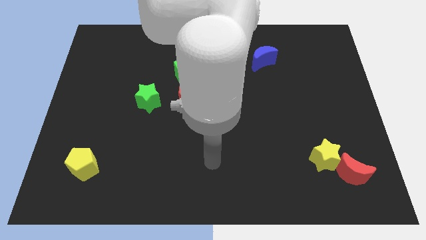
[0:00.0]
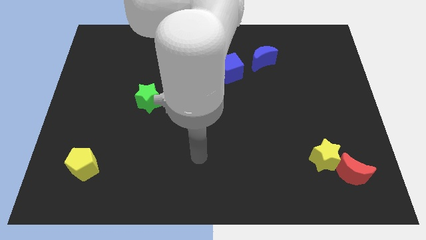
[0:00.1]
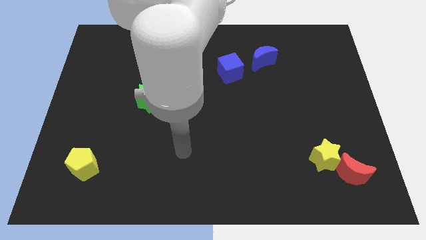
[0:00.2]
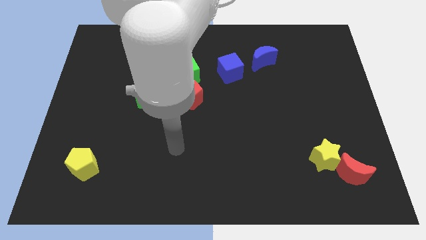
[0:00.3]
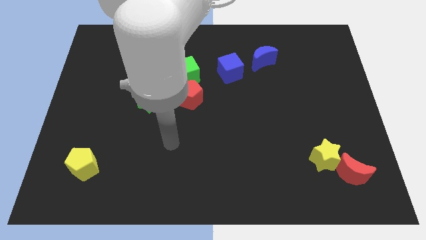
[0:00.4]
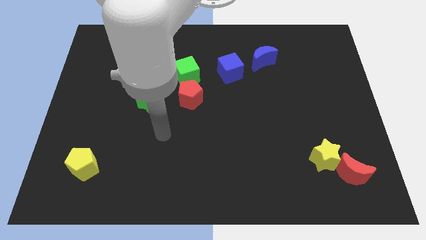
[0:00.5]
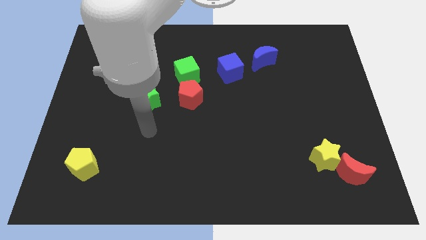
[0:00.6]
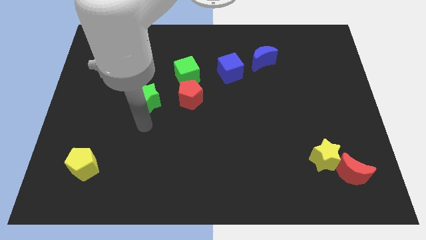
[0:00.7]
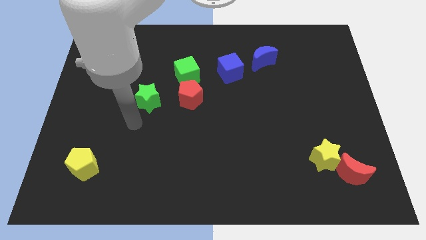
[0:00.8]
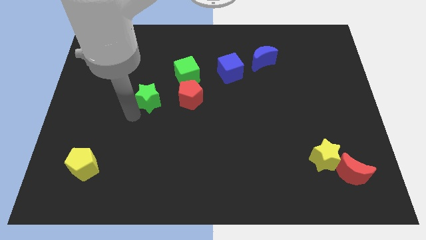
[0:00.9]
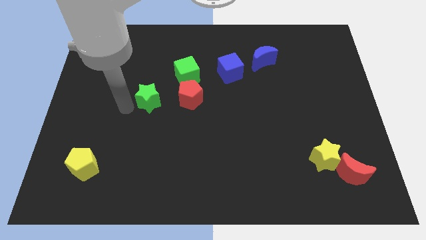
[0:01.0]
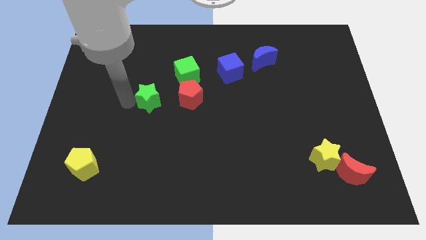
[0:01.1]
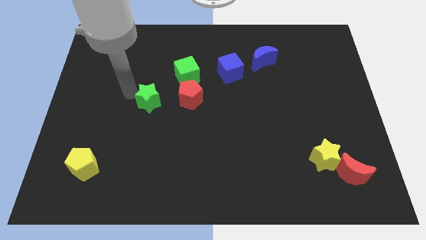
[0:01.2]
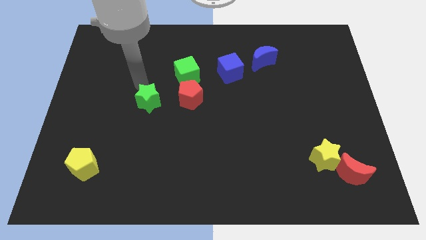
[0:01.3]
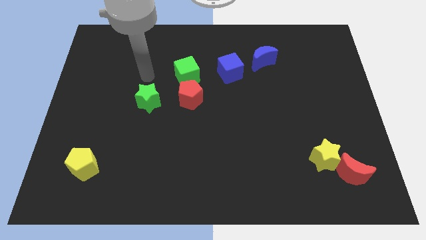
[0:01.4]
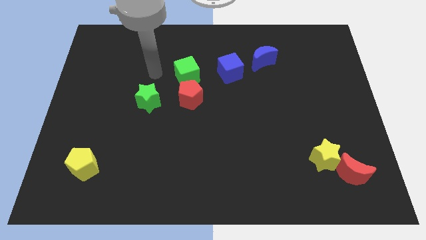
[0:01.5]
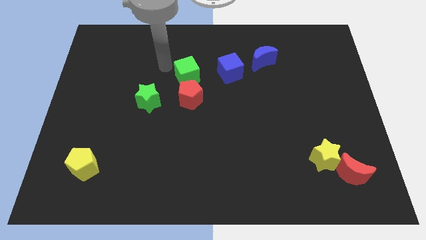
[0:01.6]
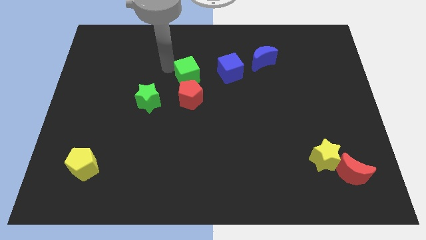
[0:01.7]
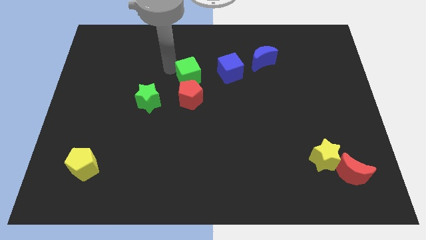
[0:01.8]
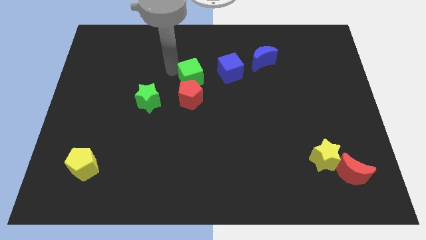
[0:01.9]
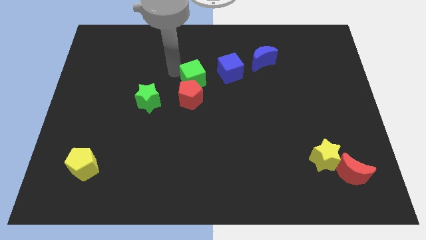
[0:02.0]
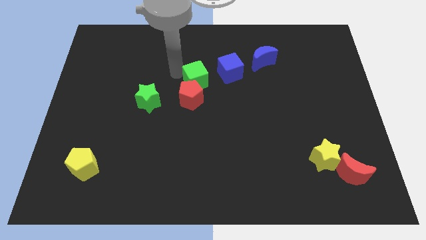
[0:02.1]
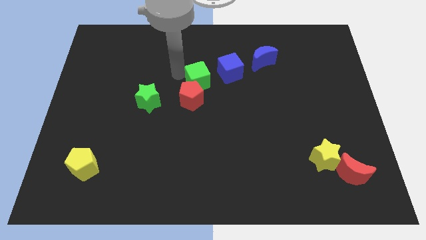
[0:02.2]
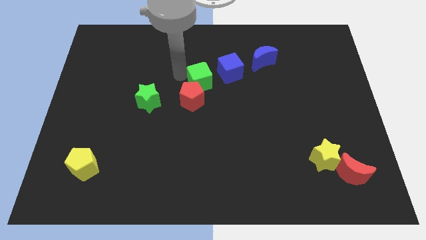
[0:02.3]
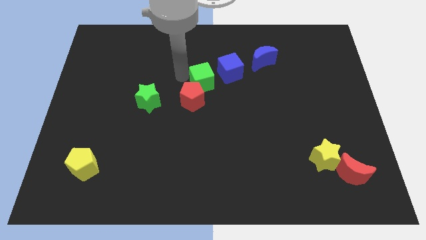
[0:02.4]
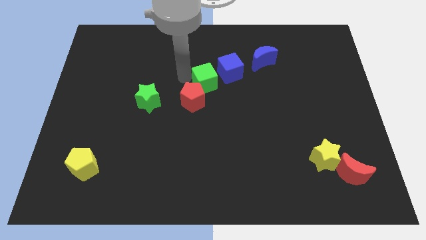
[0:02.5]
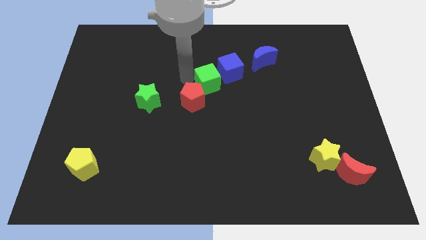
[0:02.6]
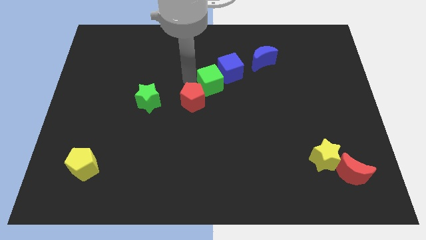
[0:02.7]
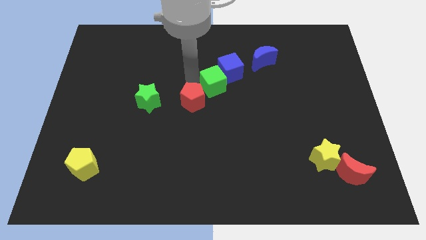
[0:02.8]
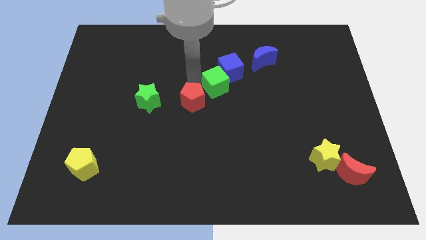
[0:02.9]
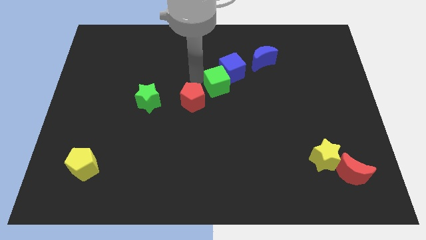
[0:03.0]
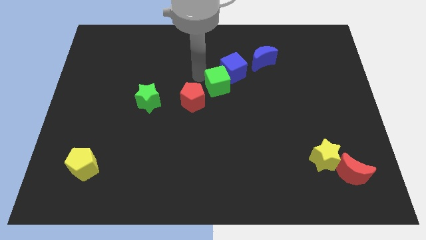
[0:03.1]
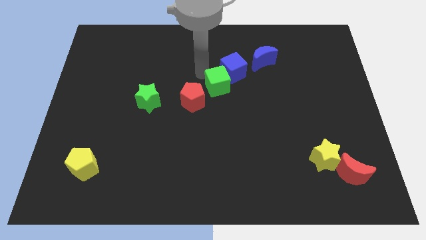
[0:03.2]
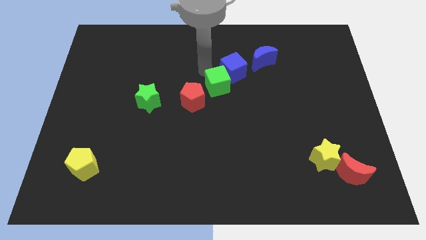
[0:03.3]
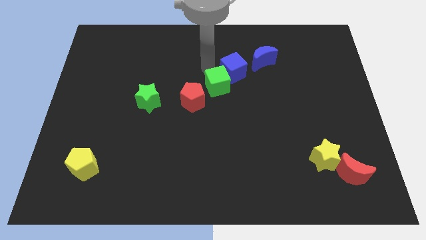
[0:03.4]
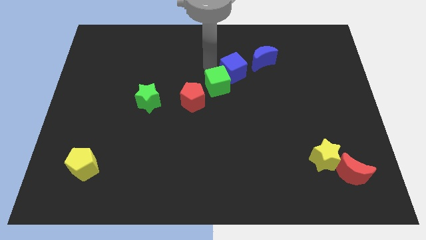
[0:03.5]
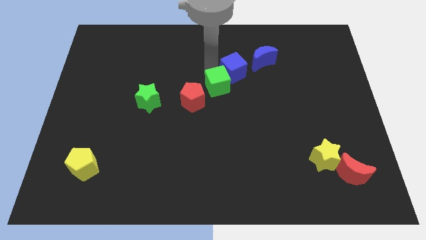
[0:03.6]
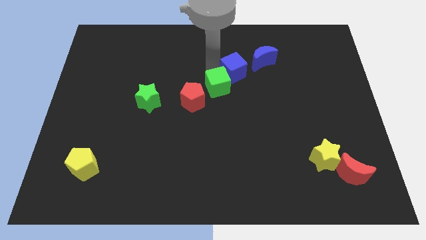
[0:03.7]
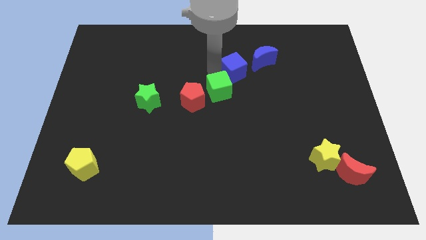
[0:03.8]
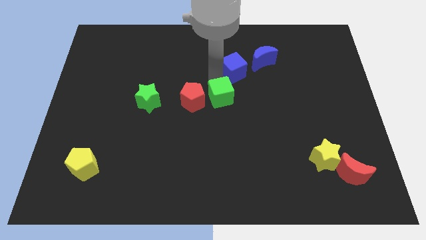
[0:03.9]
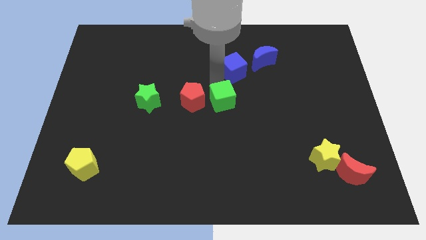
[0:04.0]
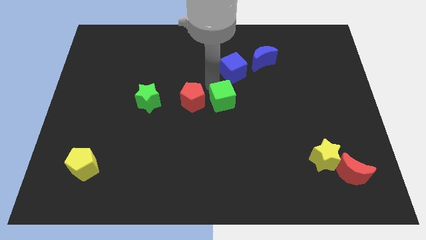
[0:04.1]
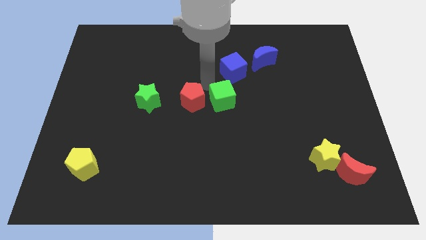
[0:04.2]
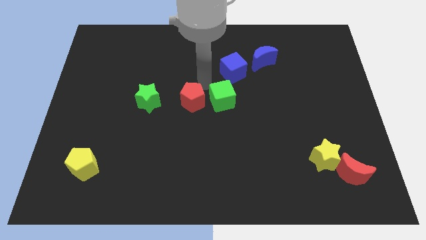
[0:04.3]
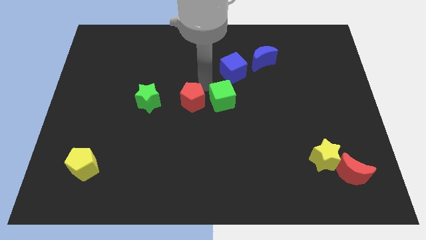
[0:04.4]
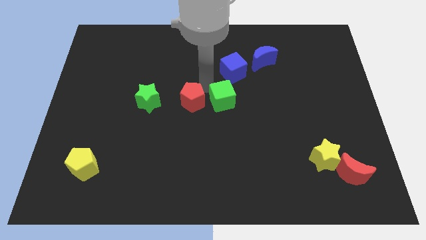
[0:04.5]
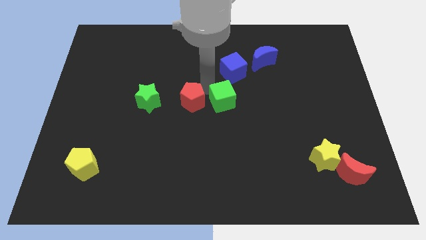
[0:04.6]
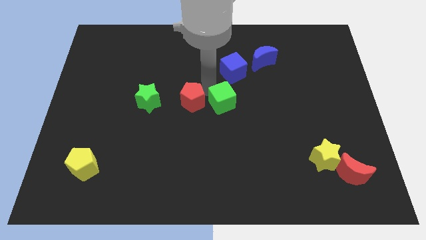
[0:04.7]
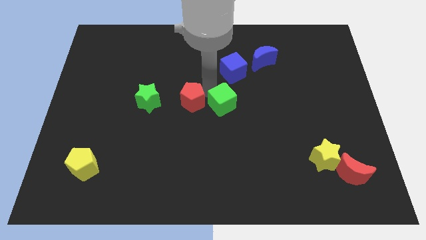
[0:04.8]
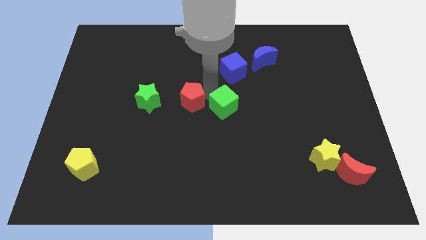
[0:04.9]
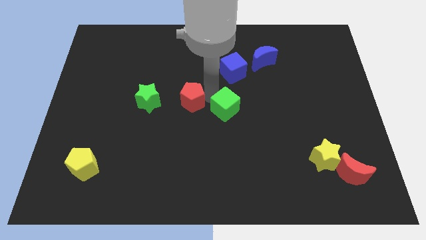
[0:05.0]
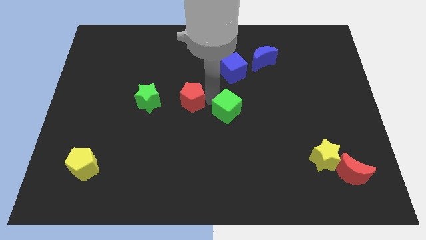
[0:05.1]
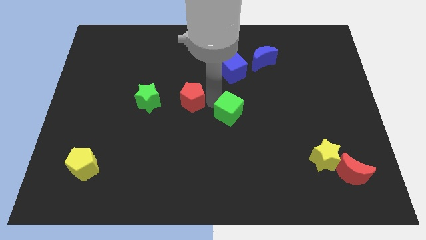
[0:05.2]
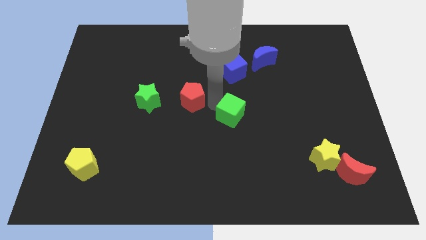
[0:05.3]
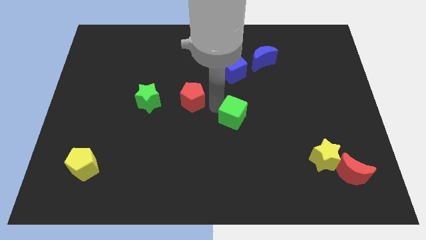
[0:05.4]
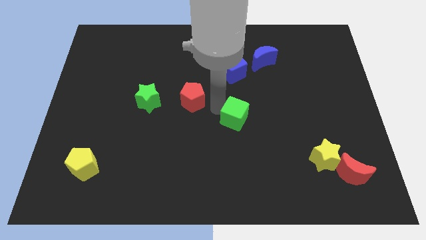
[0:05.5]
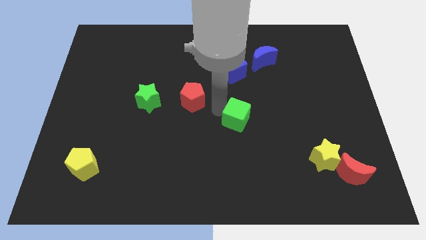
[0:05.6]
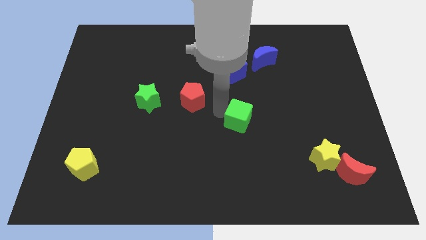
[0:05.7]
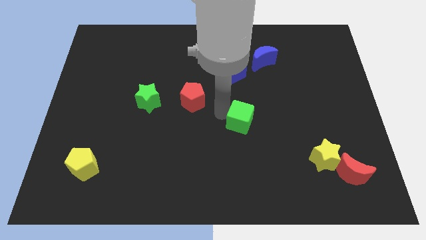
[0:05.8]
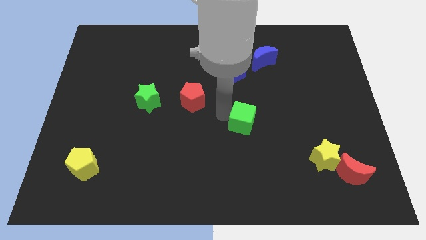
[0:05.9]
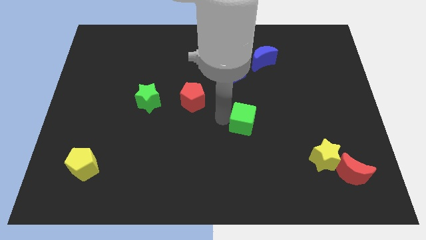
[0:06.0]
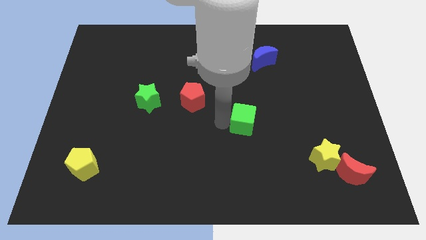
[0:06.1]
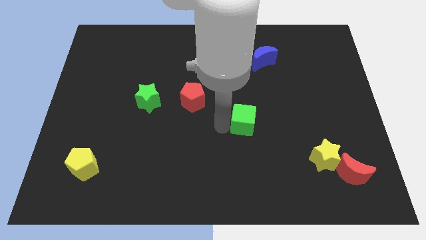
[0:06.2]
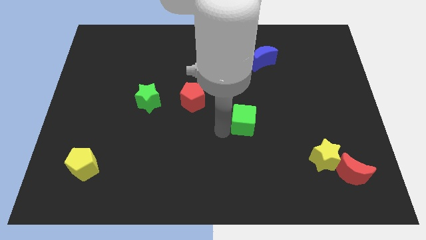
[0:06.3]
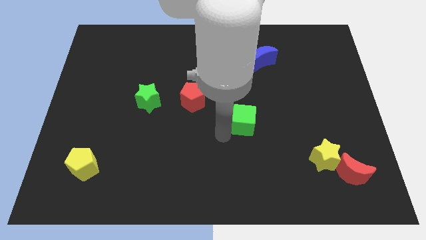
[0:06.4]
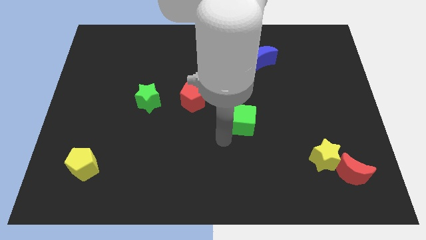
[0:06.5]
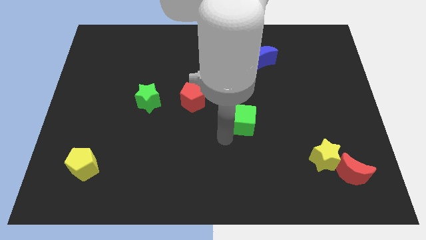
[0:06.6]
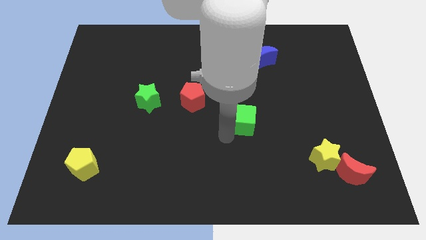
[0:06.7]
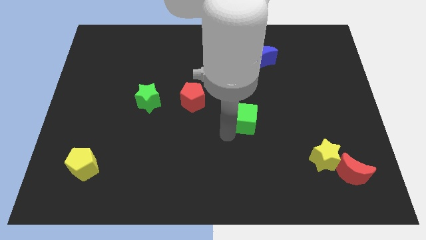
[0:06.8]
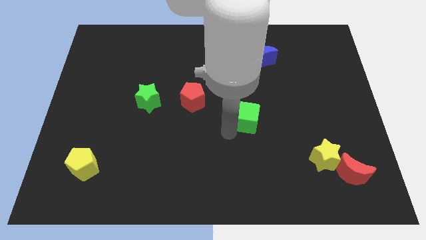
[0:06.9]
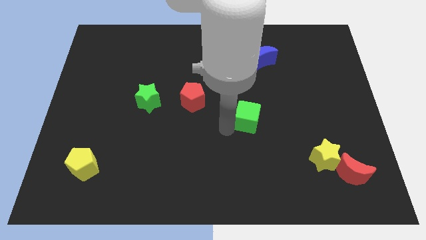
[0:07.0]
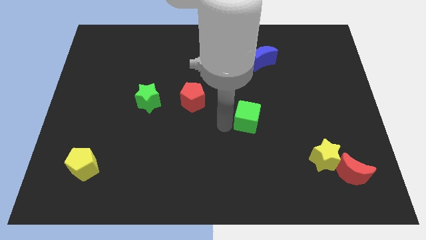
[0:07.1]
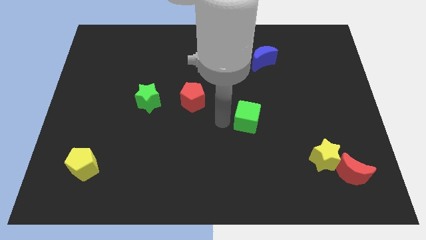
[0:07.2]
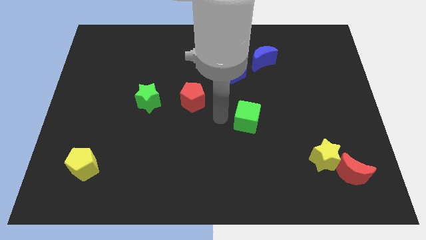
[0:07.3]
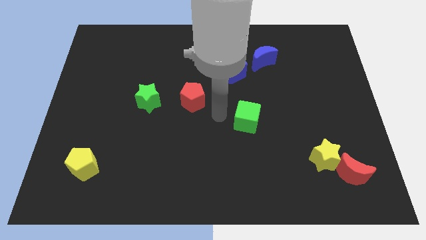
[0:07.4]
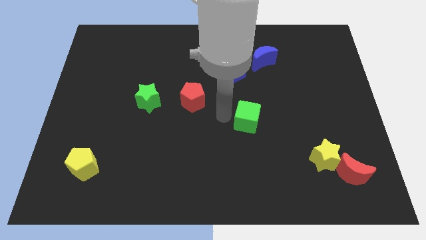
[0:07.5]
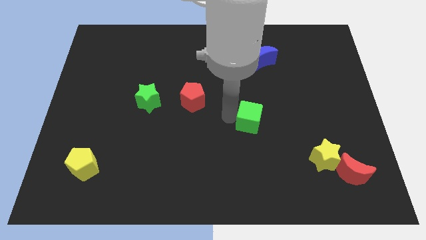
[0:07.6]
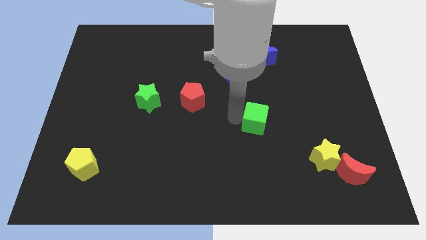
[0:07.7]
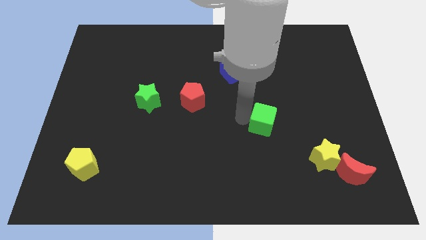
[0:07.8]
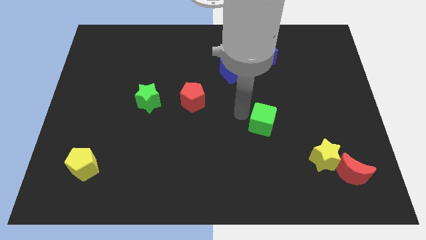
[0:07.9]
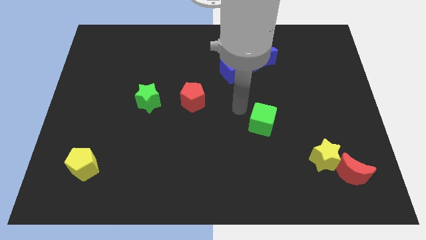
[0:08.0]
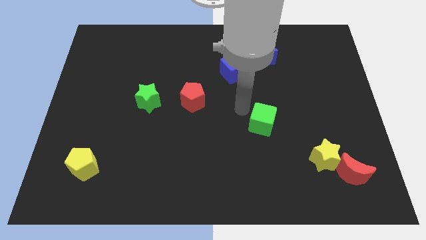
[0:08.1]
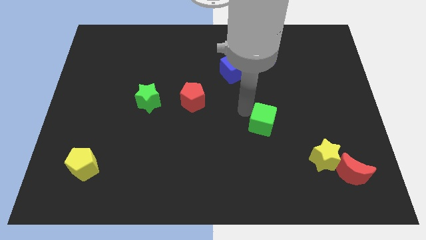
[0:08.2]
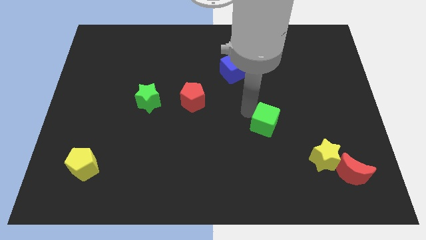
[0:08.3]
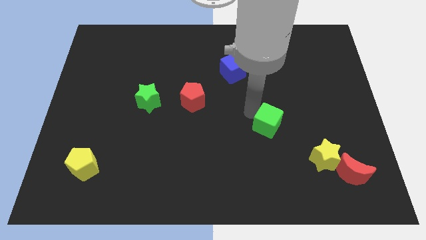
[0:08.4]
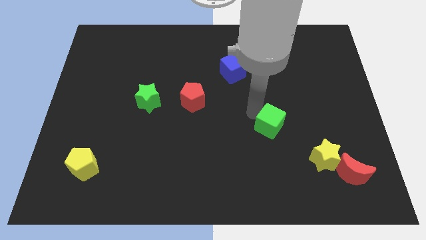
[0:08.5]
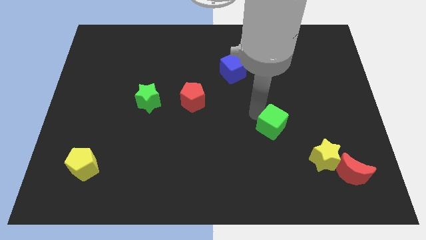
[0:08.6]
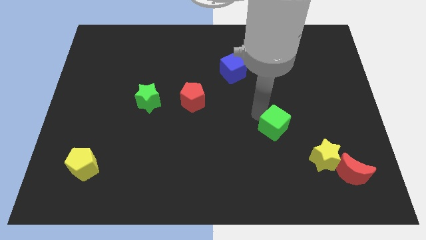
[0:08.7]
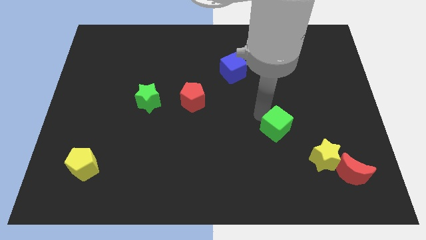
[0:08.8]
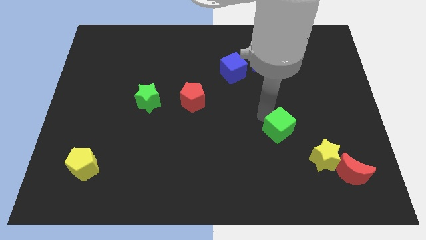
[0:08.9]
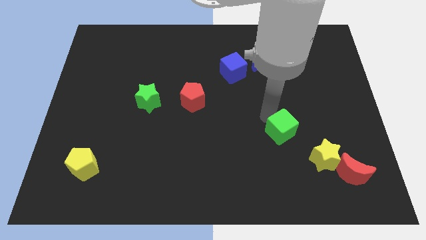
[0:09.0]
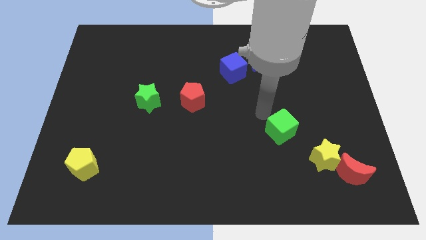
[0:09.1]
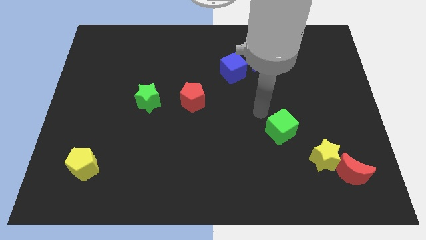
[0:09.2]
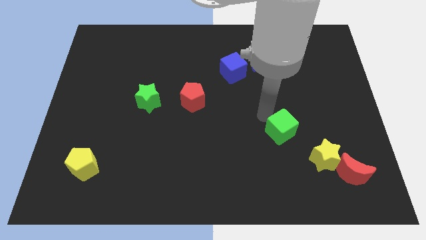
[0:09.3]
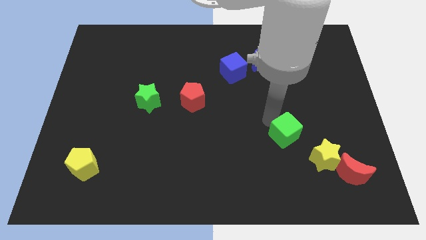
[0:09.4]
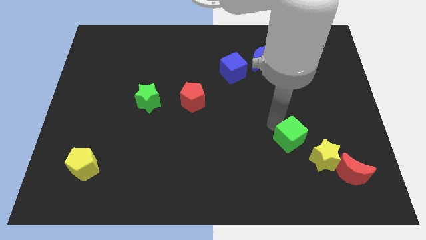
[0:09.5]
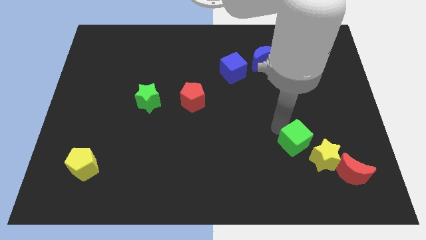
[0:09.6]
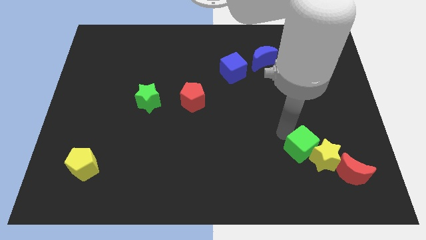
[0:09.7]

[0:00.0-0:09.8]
push the green cube close to the yellow star
